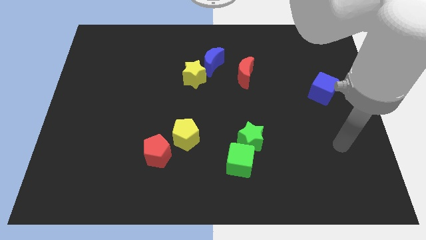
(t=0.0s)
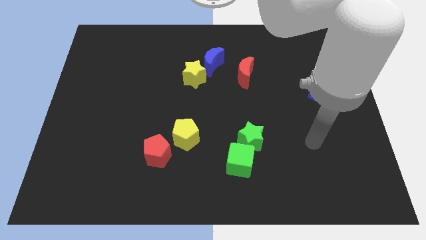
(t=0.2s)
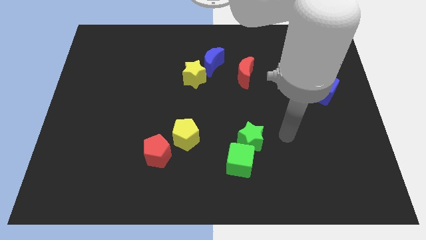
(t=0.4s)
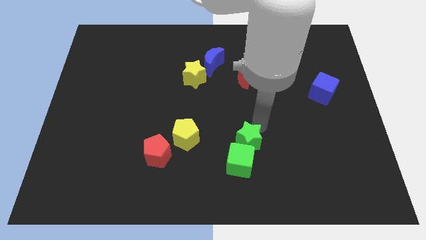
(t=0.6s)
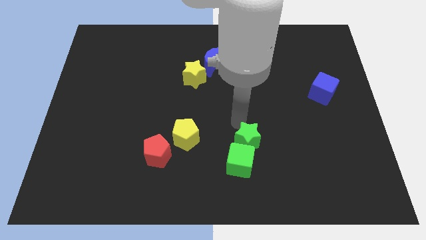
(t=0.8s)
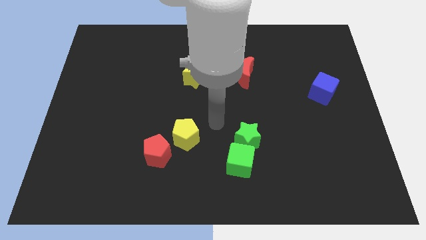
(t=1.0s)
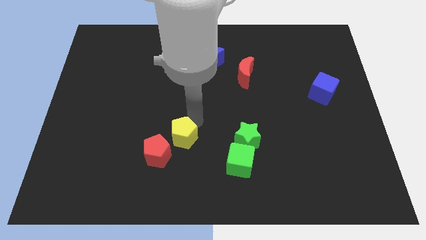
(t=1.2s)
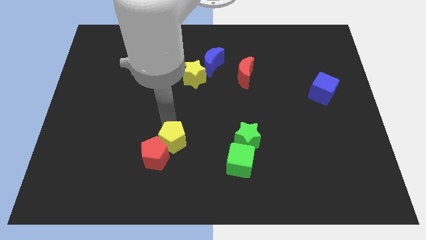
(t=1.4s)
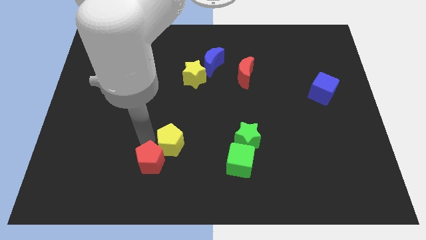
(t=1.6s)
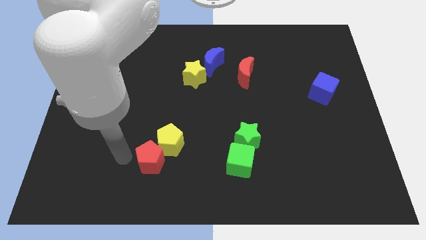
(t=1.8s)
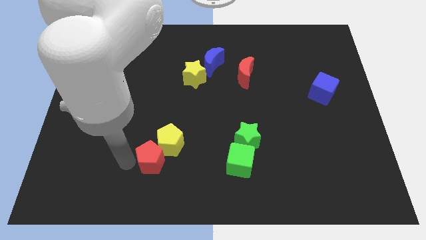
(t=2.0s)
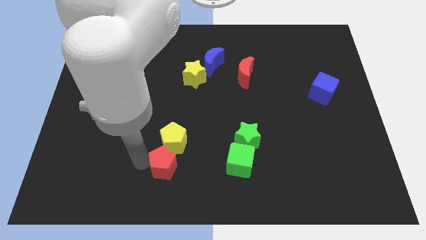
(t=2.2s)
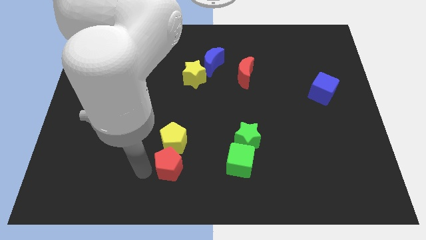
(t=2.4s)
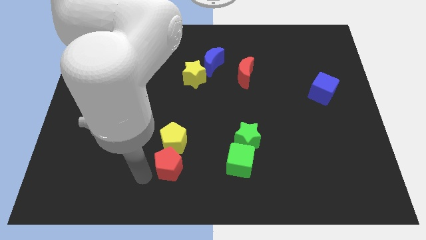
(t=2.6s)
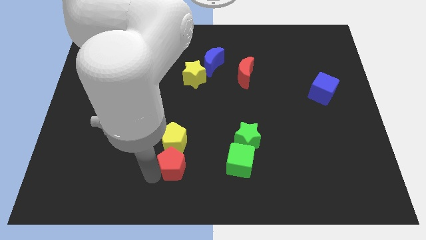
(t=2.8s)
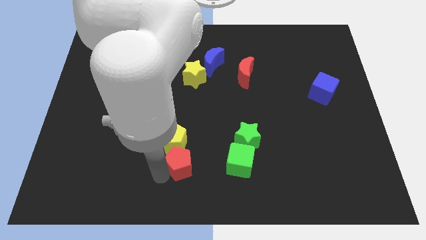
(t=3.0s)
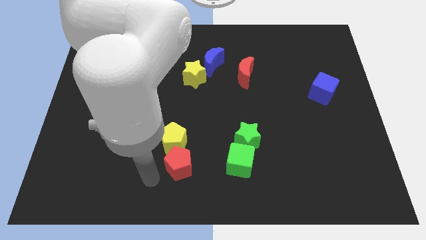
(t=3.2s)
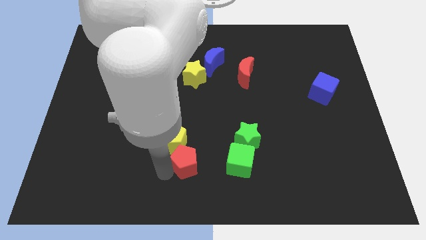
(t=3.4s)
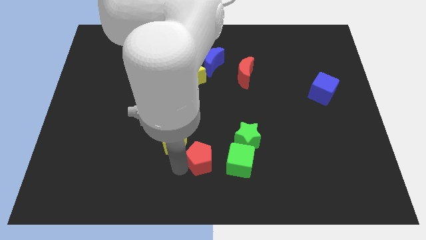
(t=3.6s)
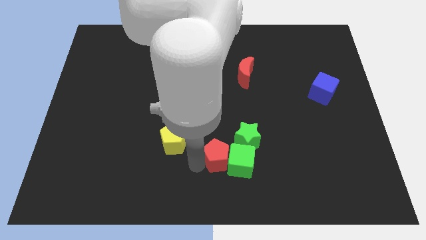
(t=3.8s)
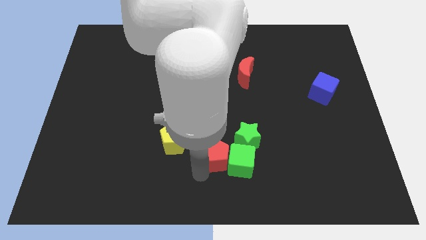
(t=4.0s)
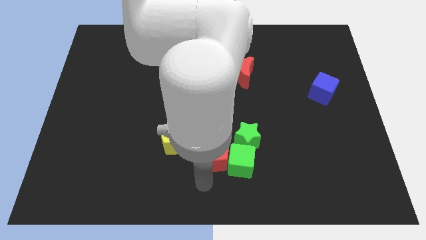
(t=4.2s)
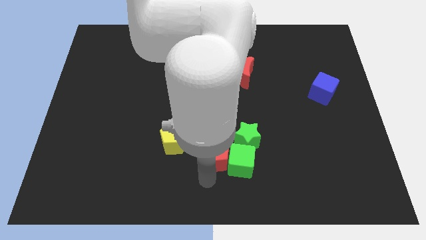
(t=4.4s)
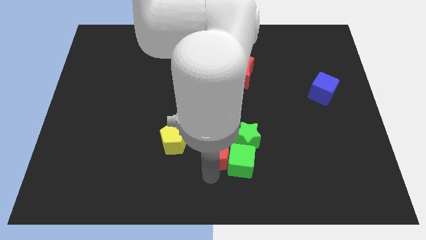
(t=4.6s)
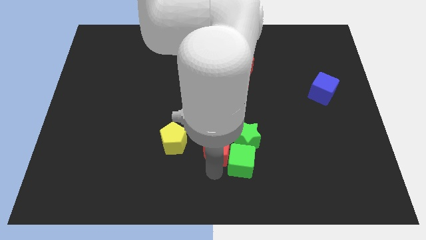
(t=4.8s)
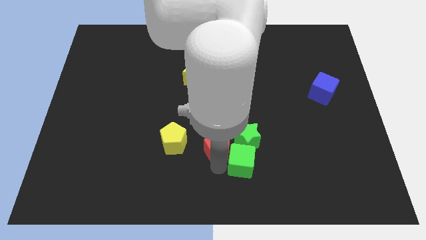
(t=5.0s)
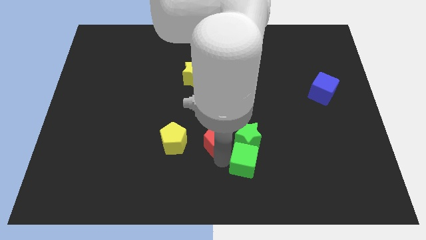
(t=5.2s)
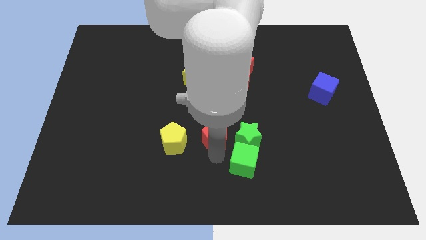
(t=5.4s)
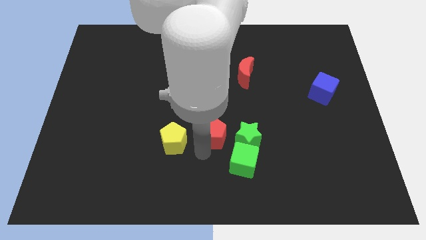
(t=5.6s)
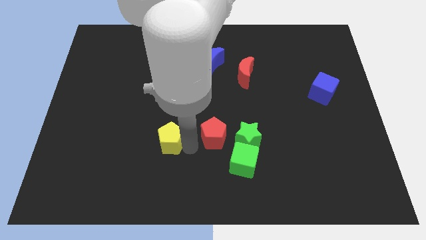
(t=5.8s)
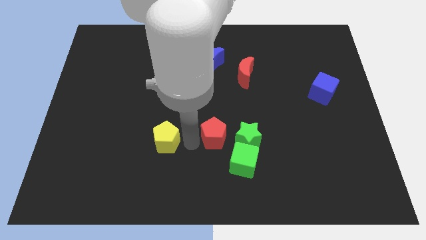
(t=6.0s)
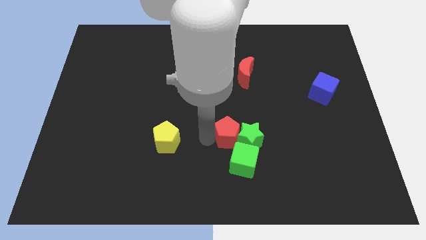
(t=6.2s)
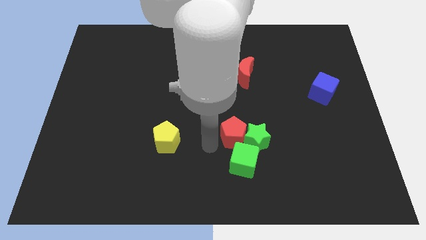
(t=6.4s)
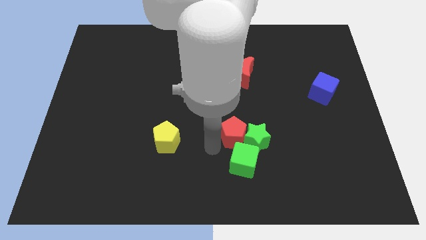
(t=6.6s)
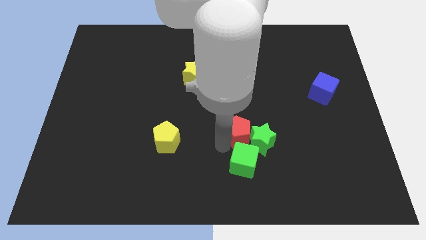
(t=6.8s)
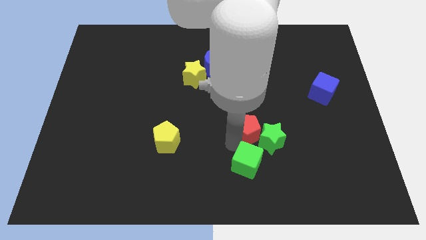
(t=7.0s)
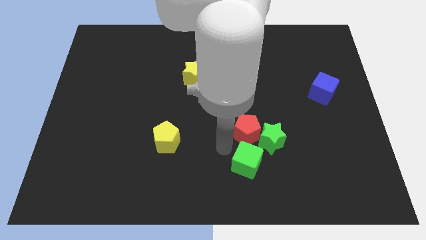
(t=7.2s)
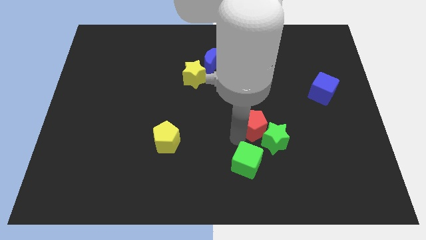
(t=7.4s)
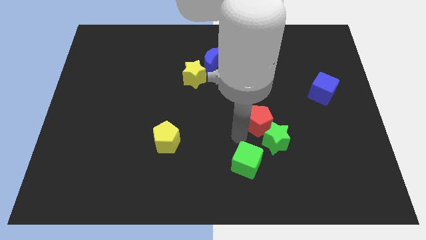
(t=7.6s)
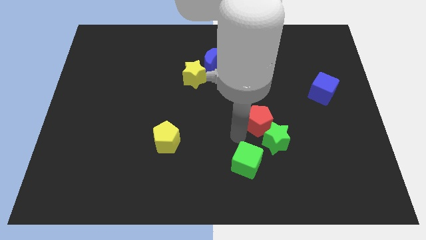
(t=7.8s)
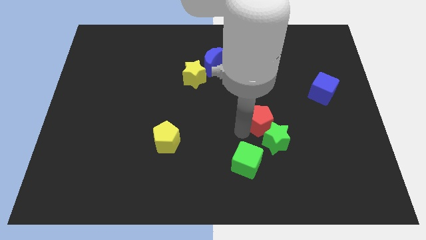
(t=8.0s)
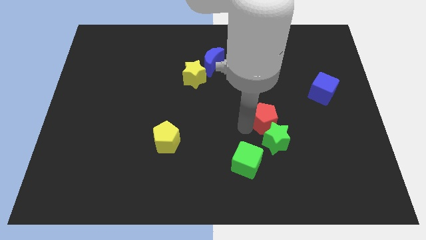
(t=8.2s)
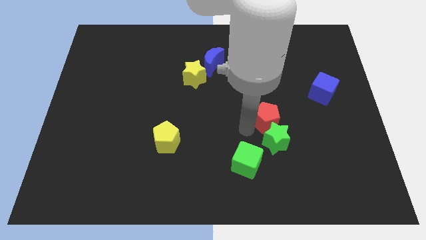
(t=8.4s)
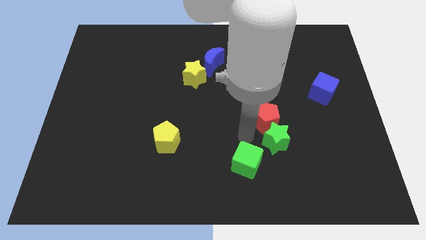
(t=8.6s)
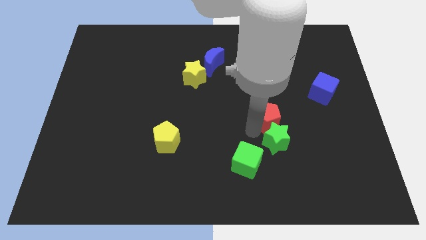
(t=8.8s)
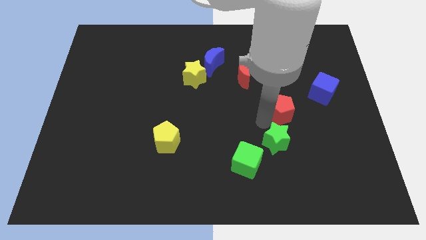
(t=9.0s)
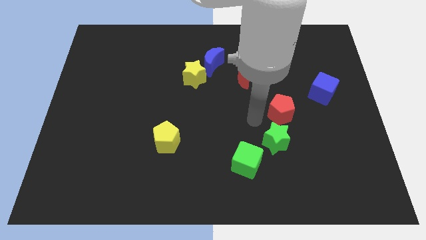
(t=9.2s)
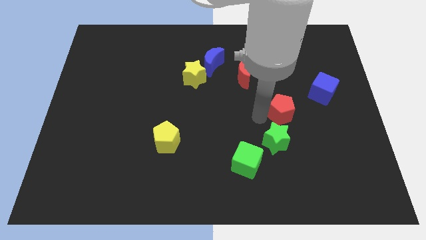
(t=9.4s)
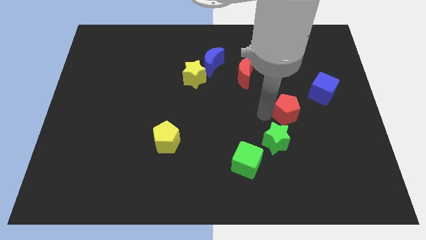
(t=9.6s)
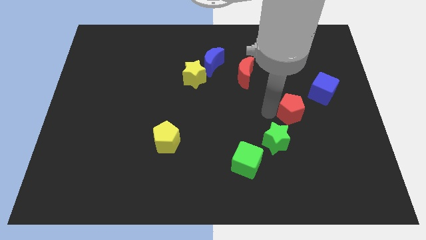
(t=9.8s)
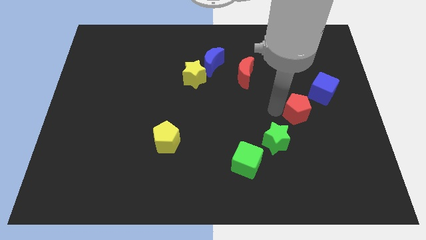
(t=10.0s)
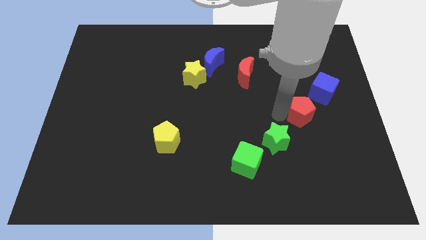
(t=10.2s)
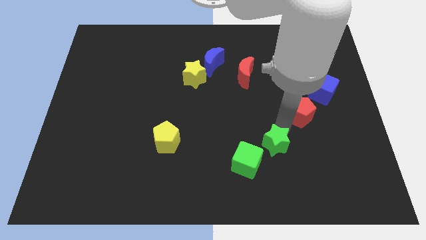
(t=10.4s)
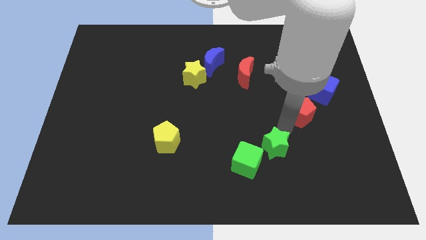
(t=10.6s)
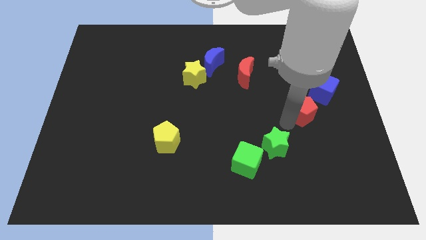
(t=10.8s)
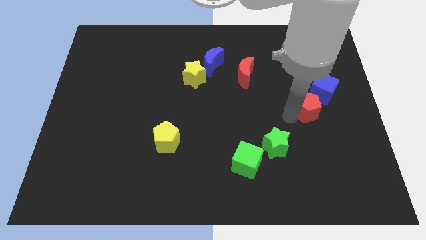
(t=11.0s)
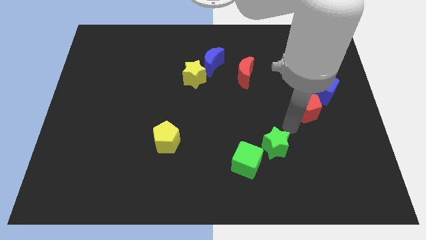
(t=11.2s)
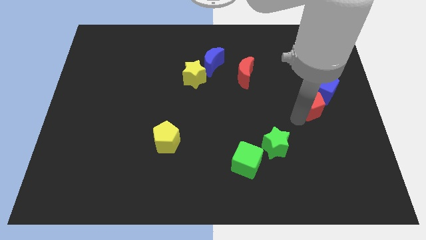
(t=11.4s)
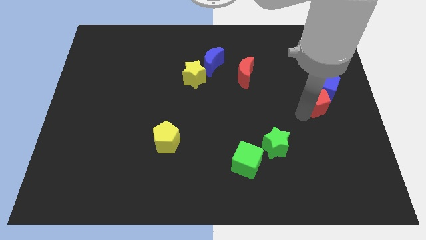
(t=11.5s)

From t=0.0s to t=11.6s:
slide the red pentagon to the blue cube

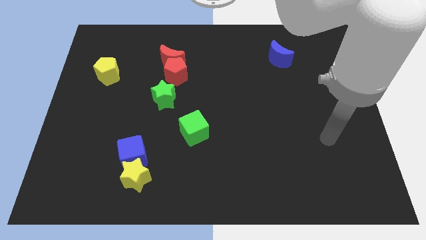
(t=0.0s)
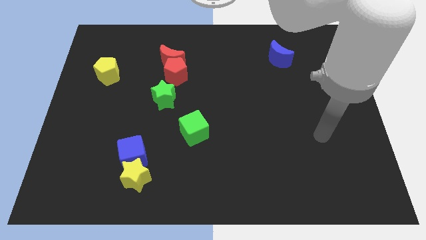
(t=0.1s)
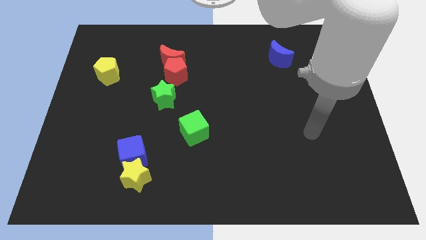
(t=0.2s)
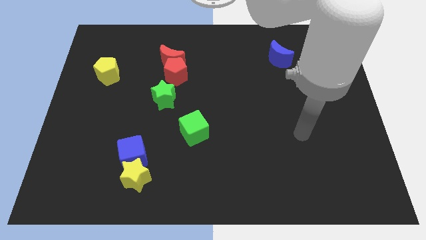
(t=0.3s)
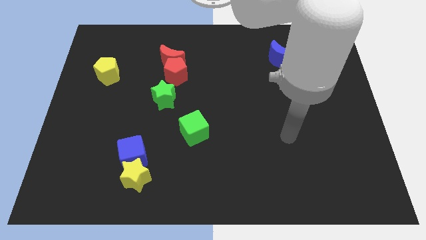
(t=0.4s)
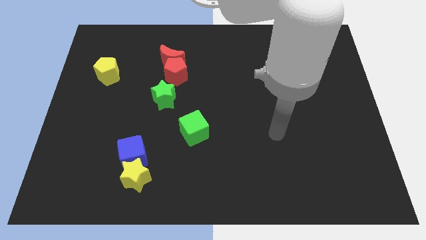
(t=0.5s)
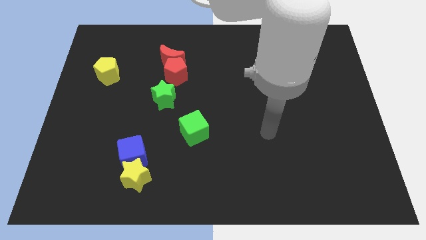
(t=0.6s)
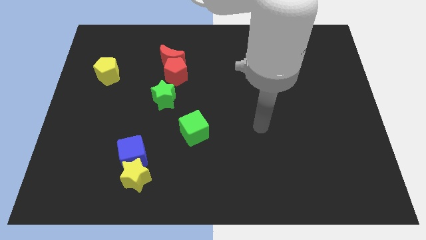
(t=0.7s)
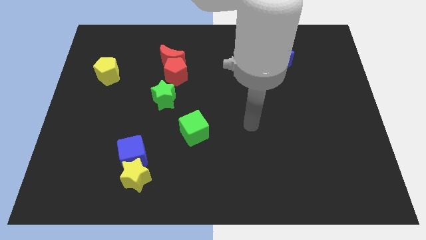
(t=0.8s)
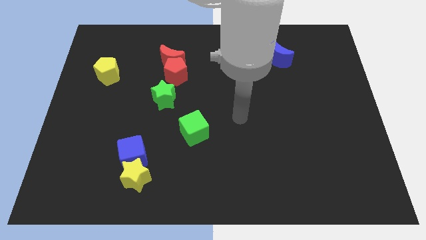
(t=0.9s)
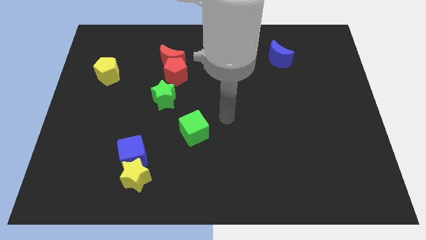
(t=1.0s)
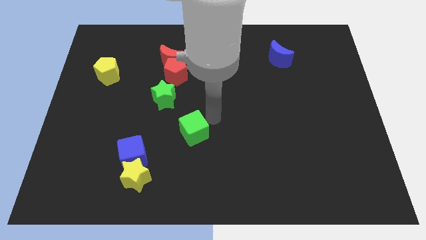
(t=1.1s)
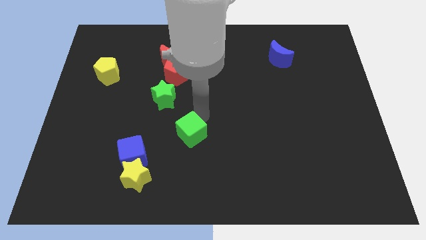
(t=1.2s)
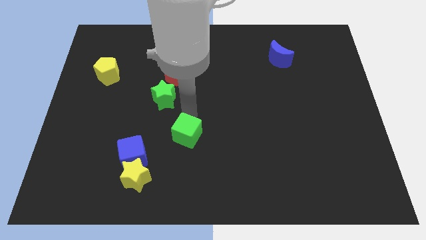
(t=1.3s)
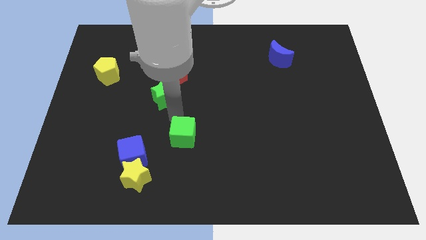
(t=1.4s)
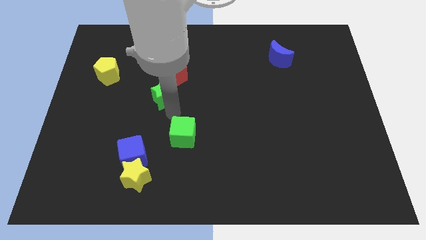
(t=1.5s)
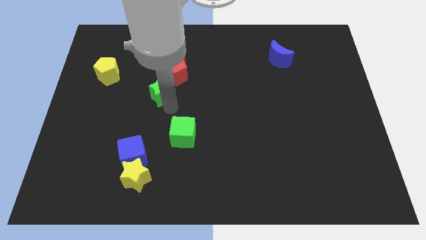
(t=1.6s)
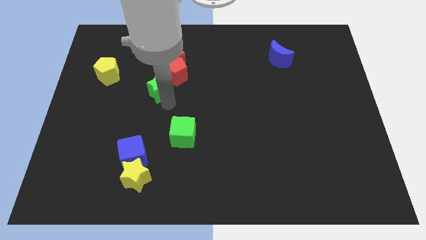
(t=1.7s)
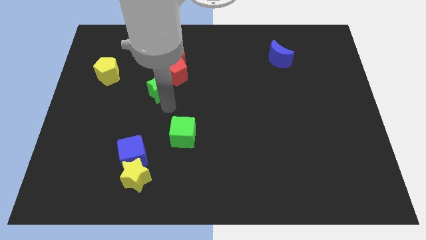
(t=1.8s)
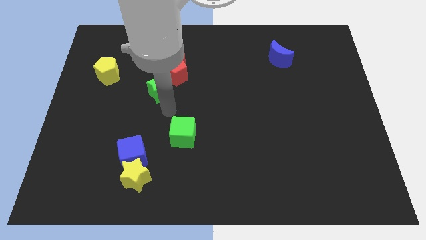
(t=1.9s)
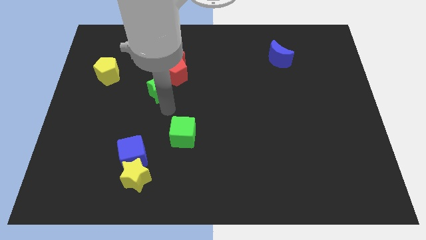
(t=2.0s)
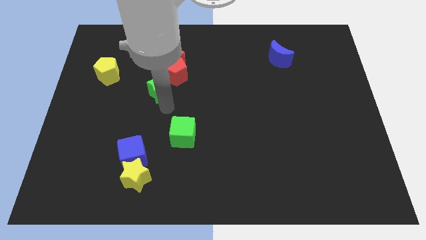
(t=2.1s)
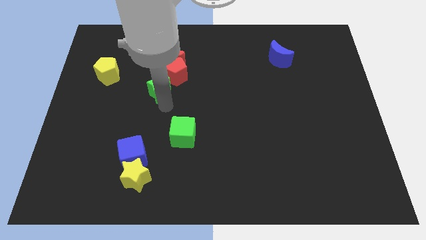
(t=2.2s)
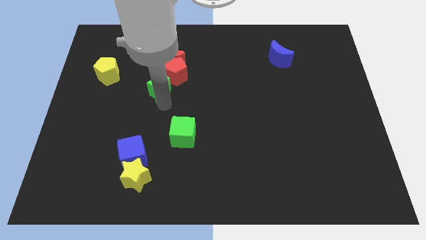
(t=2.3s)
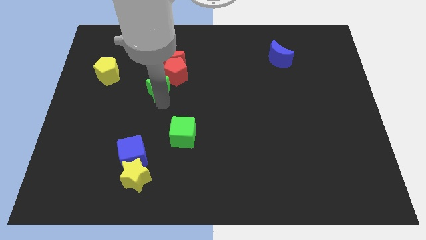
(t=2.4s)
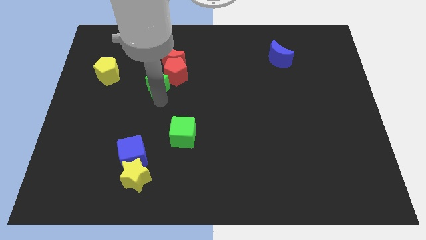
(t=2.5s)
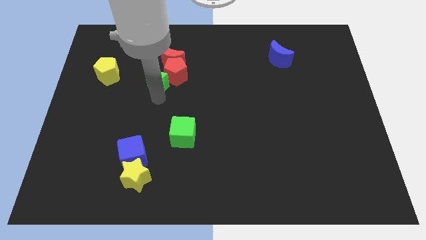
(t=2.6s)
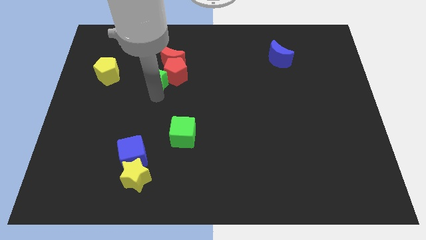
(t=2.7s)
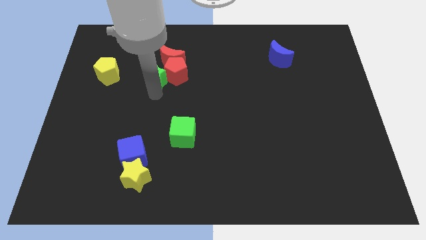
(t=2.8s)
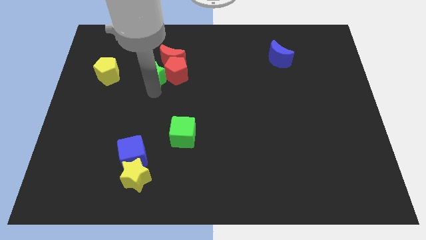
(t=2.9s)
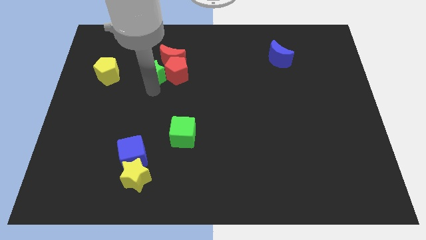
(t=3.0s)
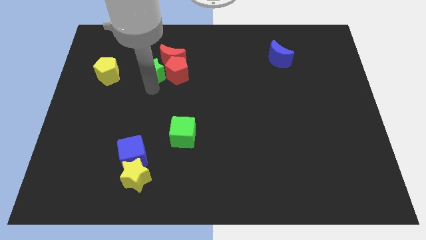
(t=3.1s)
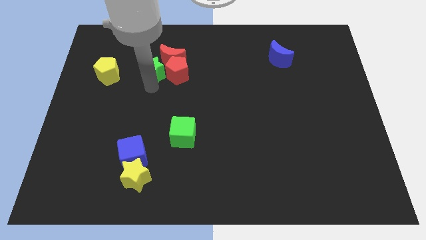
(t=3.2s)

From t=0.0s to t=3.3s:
move the green star next to the red moon
